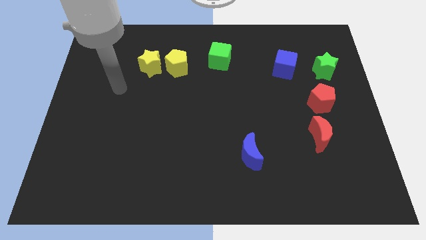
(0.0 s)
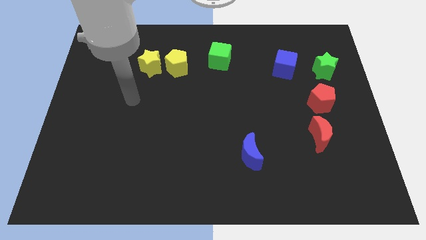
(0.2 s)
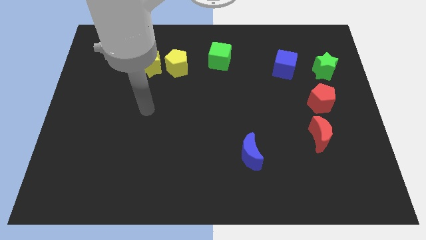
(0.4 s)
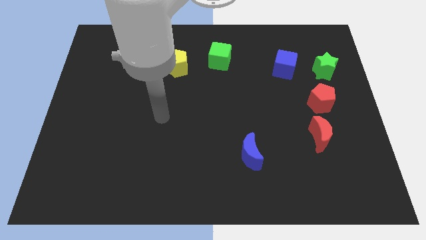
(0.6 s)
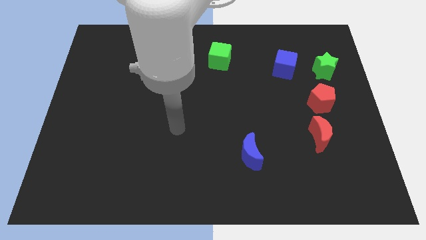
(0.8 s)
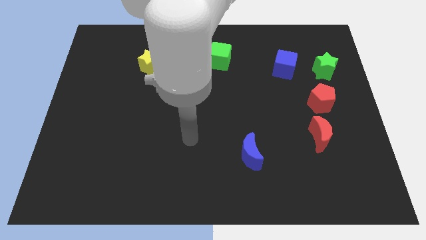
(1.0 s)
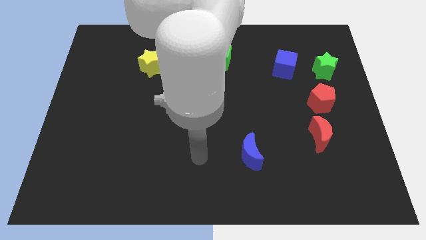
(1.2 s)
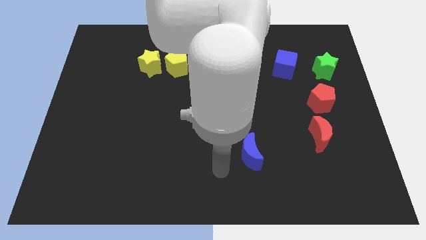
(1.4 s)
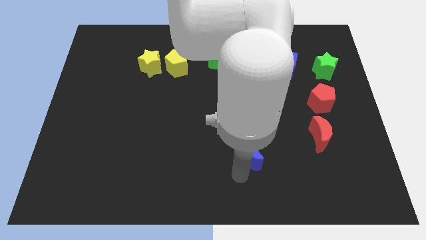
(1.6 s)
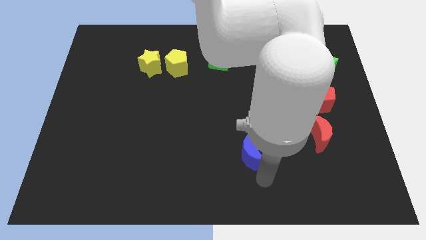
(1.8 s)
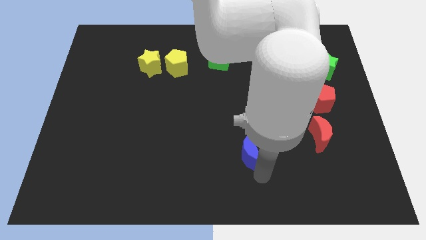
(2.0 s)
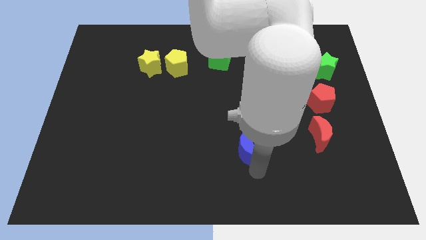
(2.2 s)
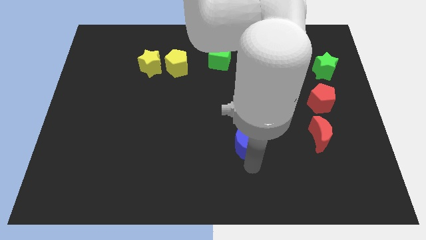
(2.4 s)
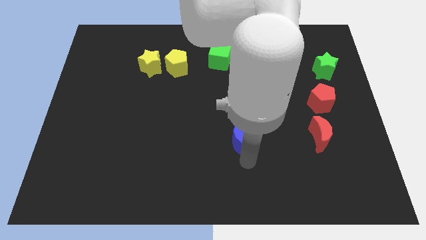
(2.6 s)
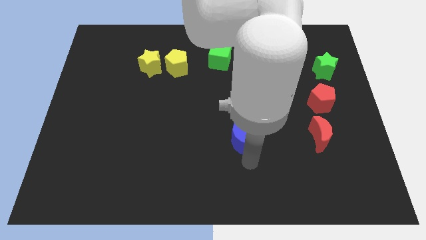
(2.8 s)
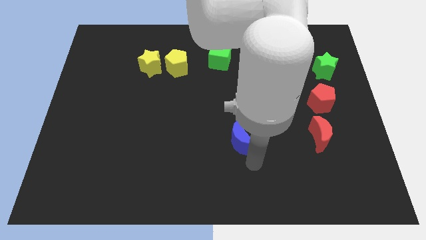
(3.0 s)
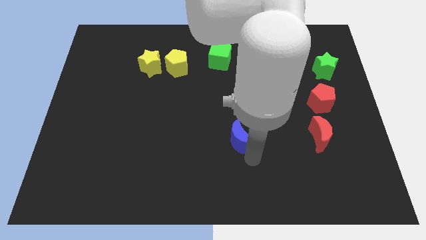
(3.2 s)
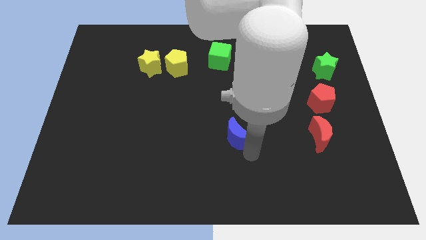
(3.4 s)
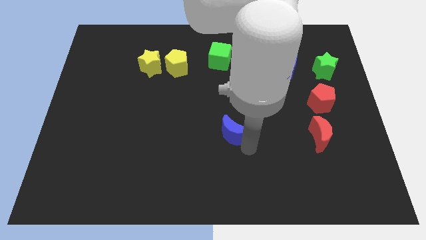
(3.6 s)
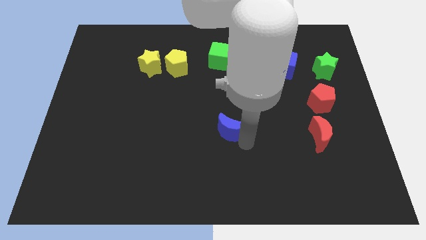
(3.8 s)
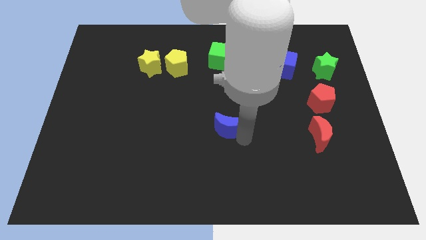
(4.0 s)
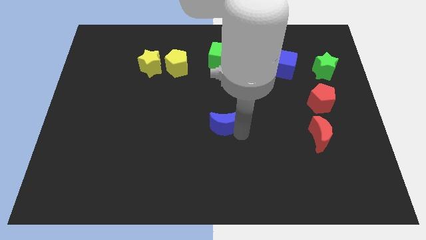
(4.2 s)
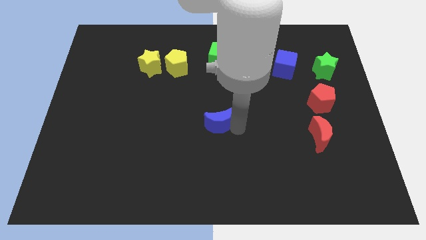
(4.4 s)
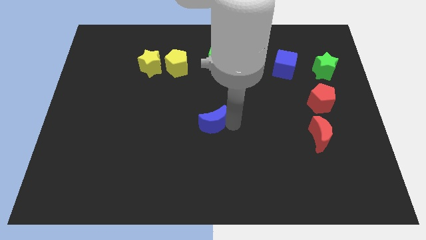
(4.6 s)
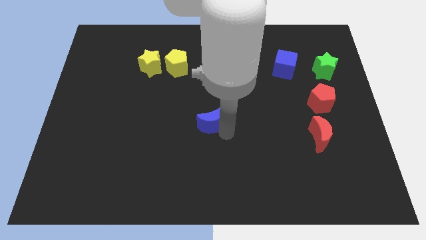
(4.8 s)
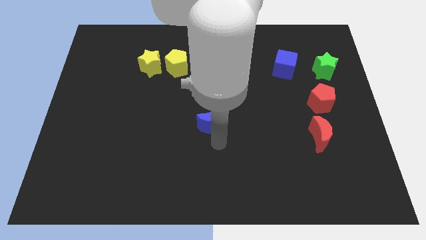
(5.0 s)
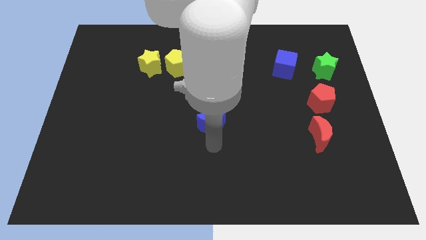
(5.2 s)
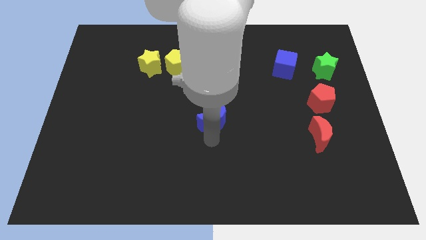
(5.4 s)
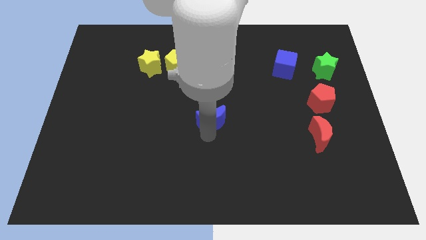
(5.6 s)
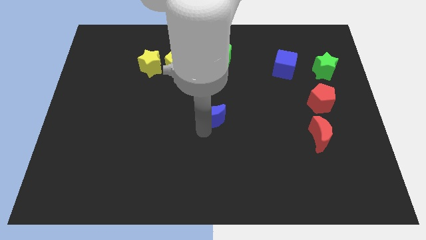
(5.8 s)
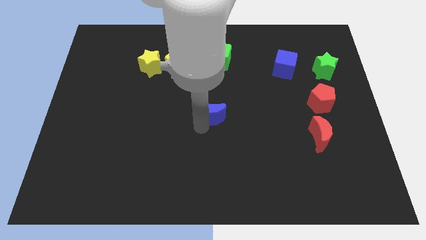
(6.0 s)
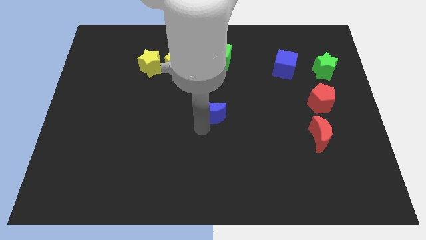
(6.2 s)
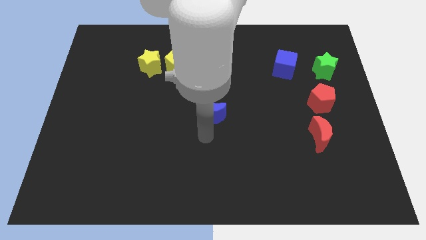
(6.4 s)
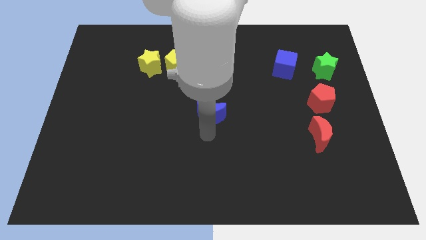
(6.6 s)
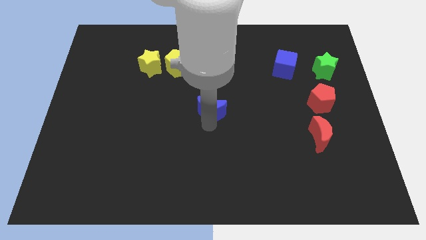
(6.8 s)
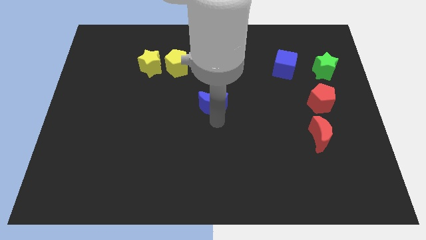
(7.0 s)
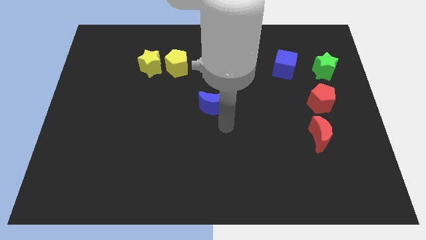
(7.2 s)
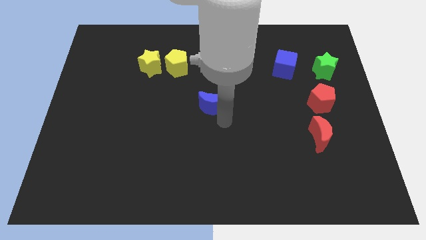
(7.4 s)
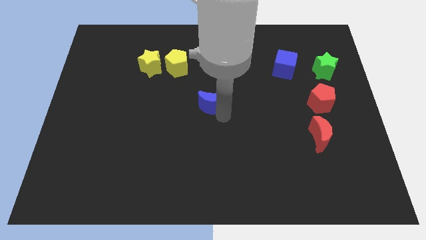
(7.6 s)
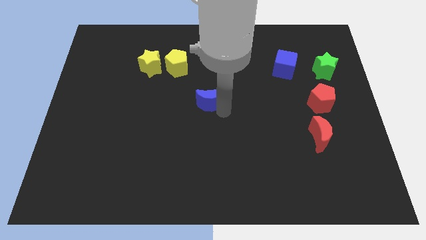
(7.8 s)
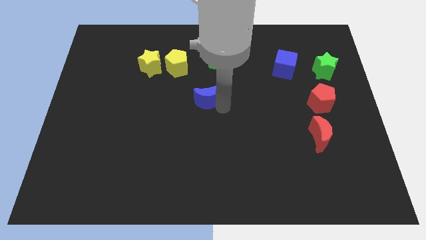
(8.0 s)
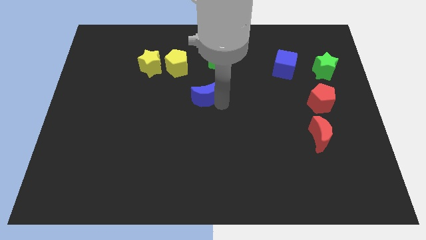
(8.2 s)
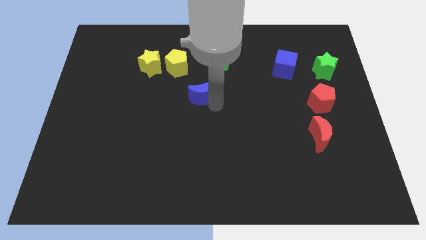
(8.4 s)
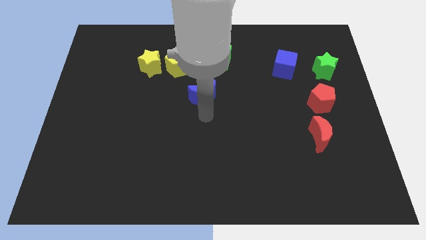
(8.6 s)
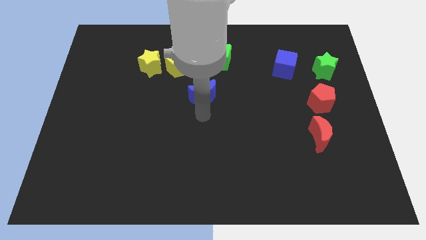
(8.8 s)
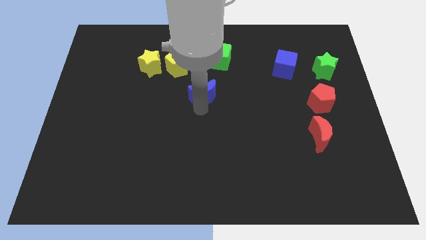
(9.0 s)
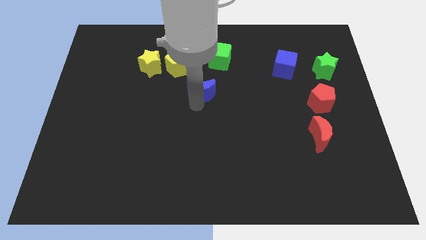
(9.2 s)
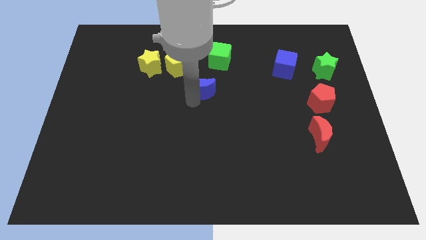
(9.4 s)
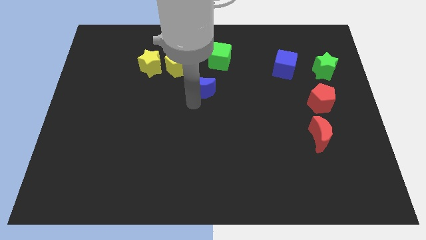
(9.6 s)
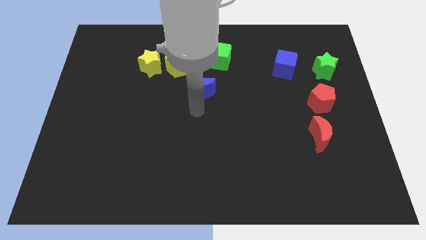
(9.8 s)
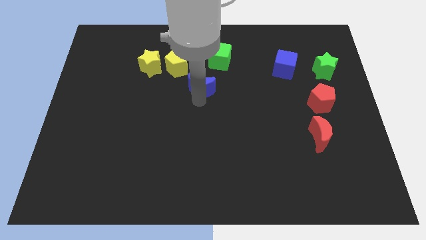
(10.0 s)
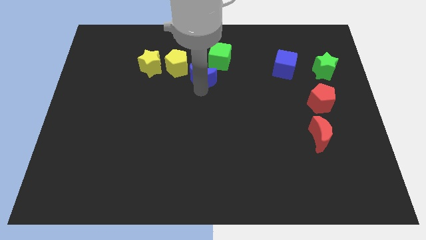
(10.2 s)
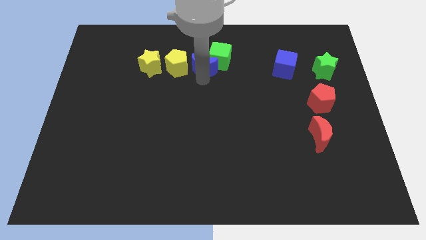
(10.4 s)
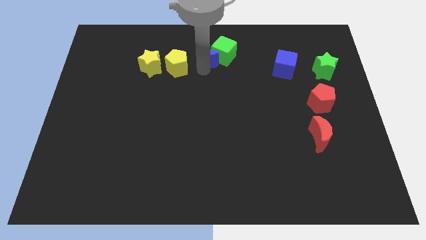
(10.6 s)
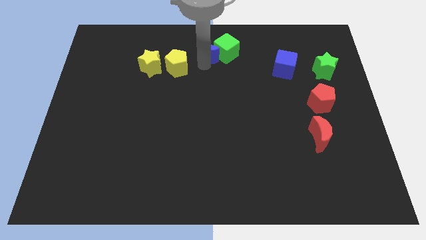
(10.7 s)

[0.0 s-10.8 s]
slide the blue moon to the top

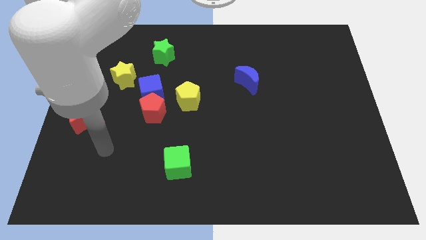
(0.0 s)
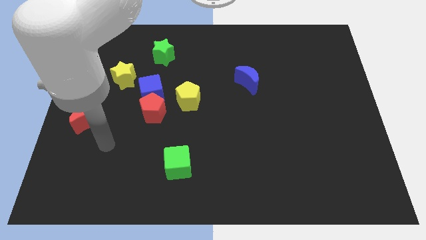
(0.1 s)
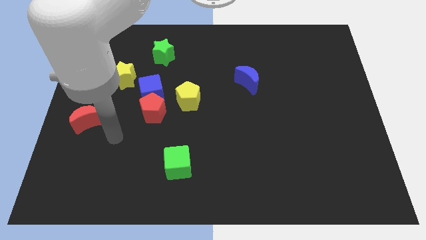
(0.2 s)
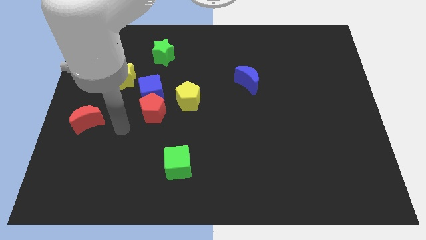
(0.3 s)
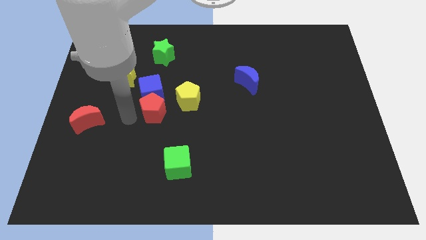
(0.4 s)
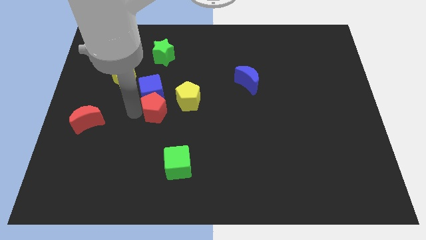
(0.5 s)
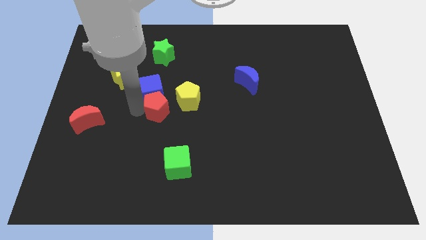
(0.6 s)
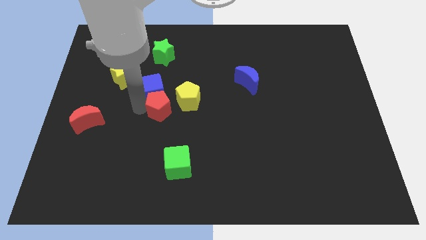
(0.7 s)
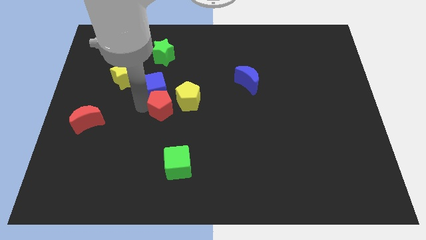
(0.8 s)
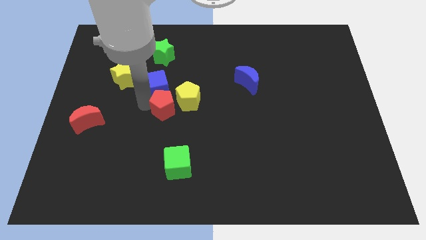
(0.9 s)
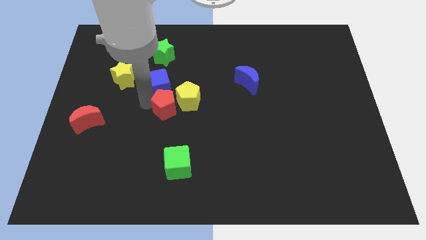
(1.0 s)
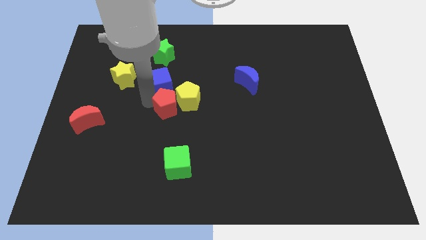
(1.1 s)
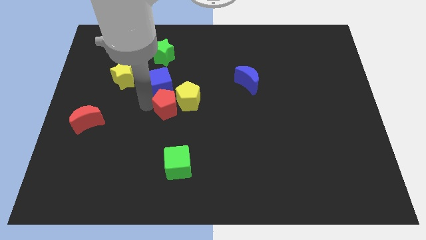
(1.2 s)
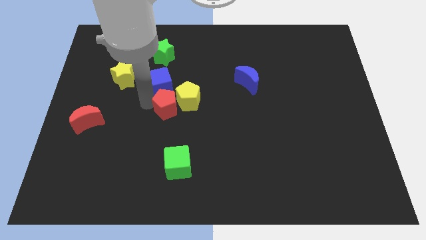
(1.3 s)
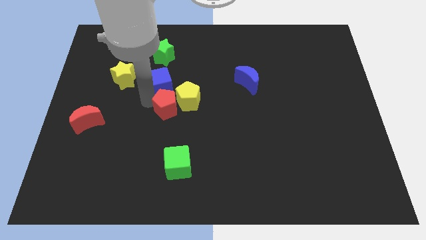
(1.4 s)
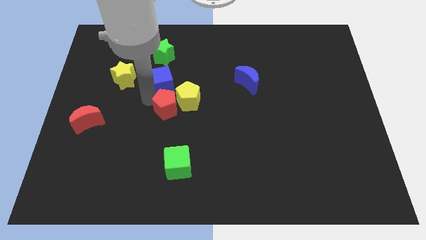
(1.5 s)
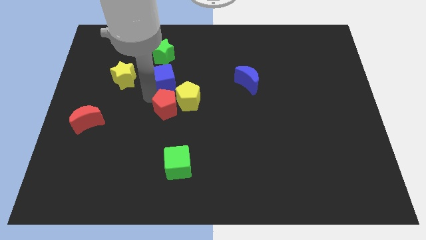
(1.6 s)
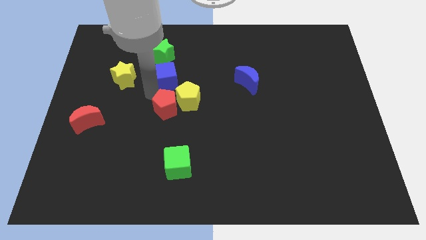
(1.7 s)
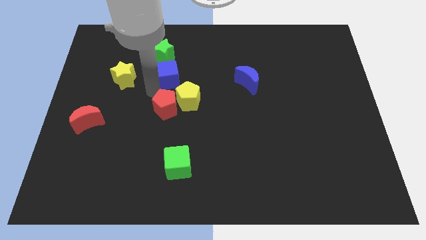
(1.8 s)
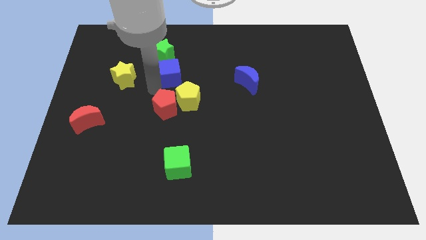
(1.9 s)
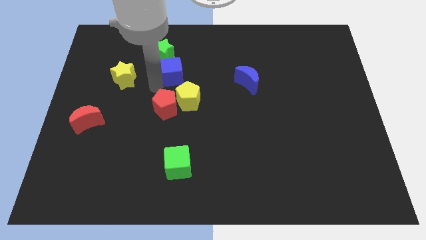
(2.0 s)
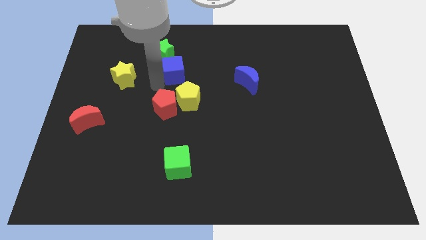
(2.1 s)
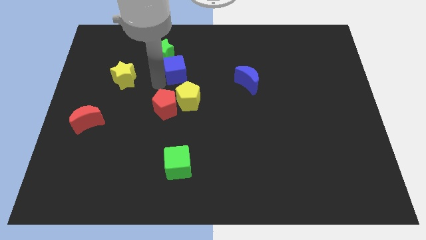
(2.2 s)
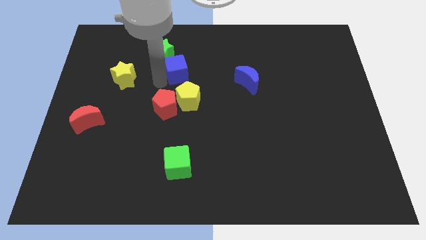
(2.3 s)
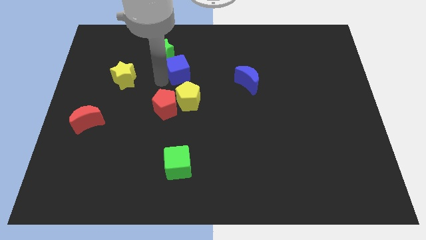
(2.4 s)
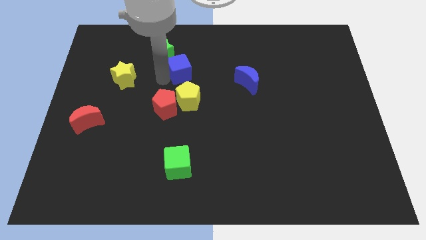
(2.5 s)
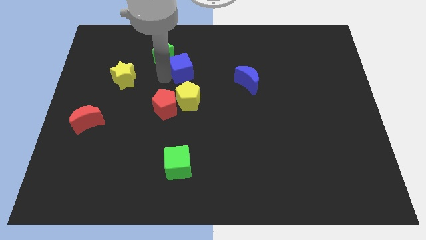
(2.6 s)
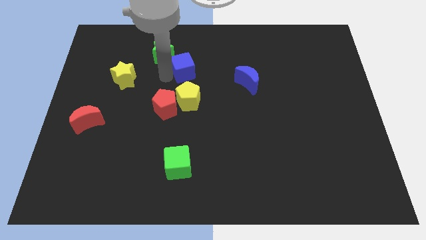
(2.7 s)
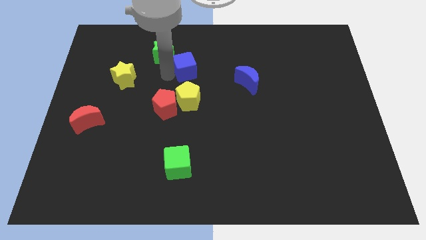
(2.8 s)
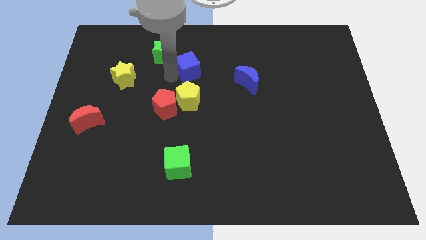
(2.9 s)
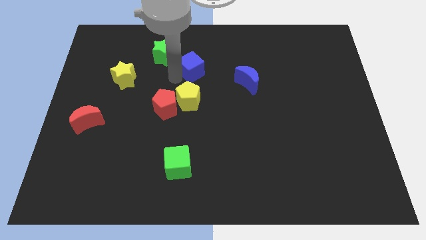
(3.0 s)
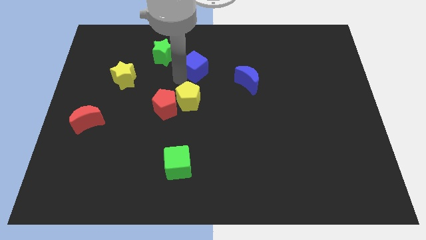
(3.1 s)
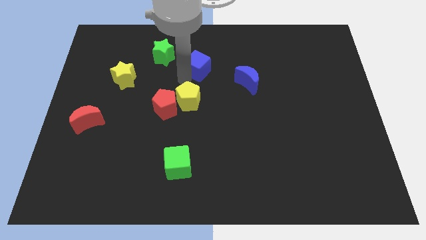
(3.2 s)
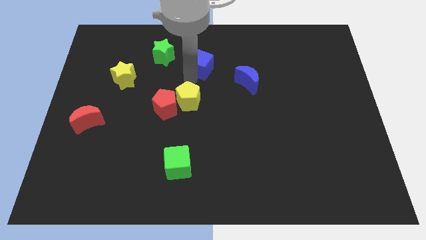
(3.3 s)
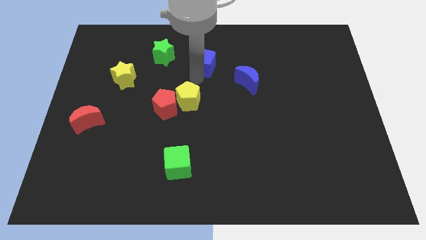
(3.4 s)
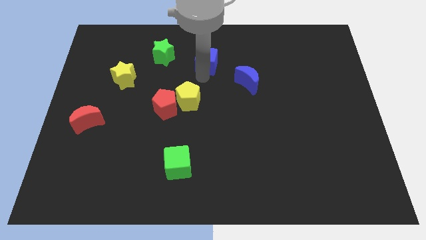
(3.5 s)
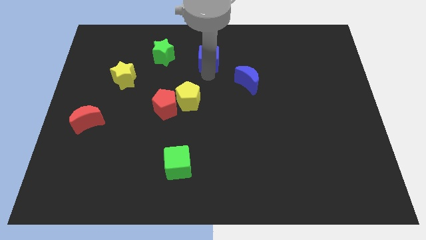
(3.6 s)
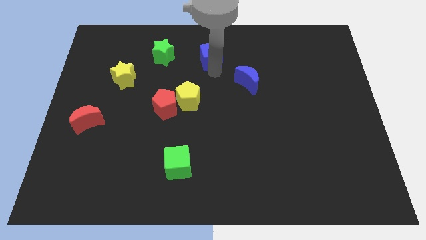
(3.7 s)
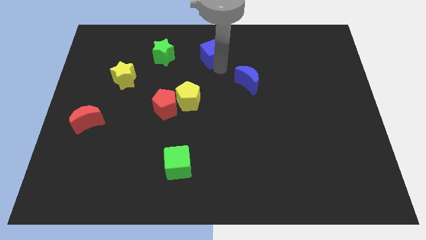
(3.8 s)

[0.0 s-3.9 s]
move the blue cube to the towards your base
